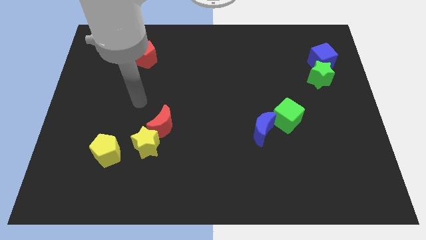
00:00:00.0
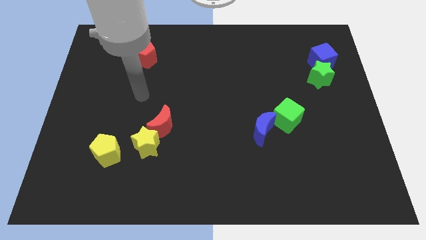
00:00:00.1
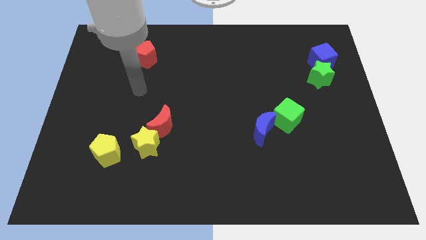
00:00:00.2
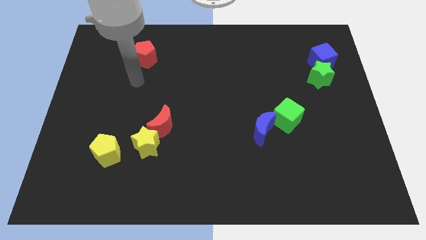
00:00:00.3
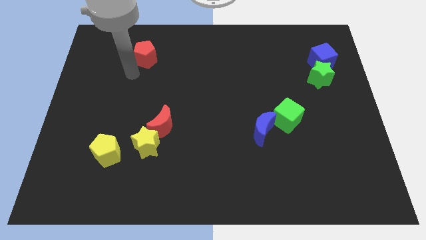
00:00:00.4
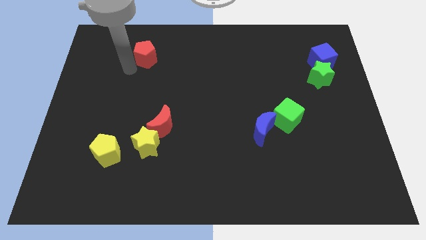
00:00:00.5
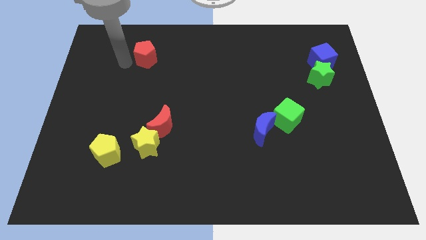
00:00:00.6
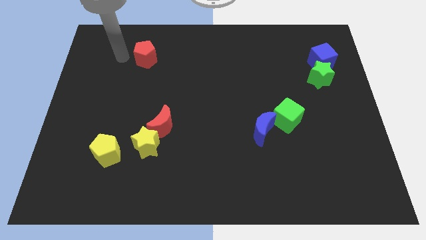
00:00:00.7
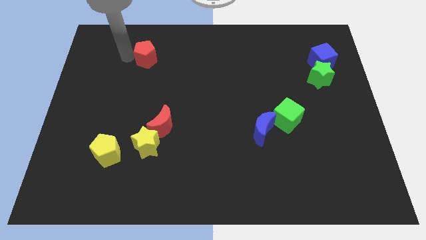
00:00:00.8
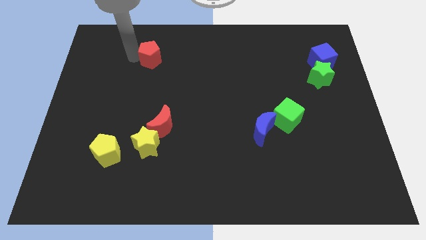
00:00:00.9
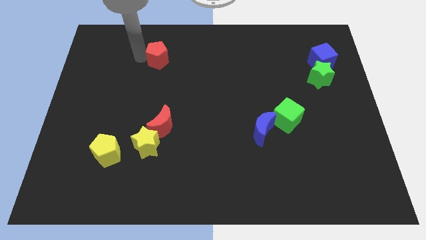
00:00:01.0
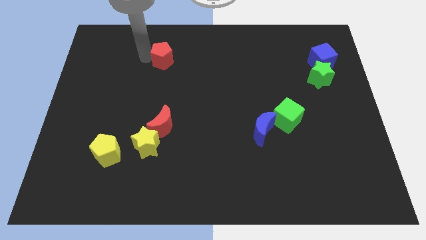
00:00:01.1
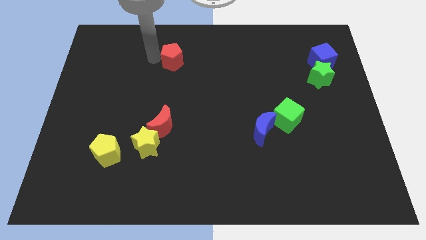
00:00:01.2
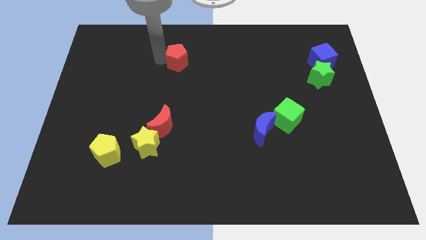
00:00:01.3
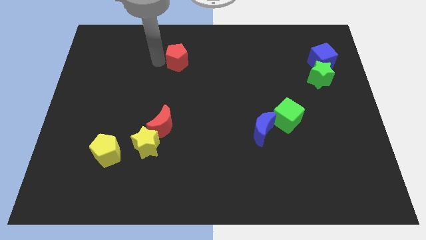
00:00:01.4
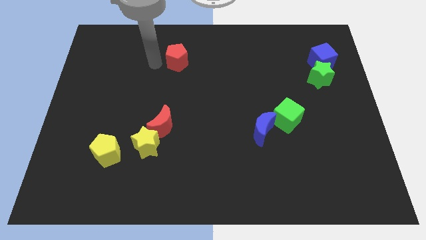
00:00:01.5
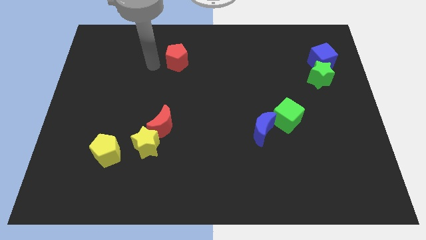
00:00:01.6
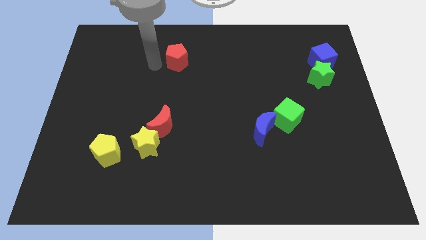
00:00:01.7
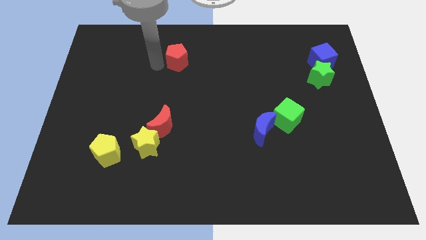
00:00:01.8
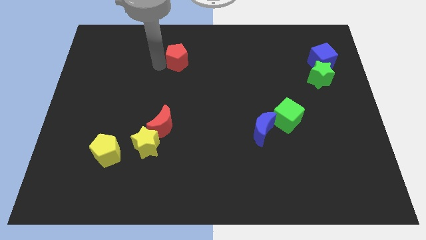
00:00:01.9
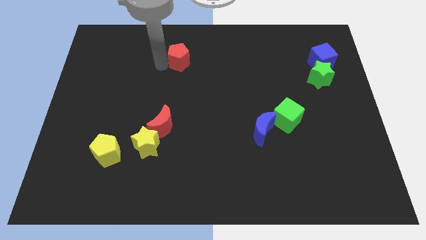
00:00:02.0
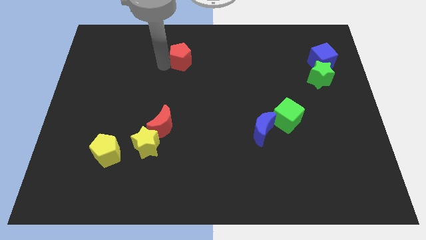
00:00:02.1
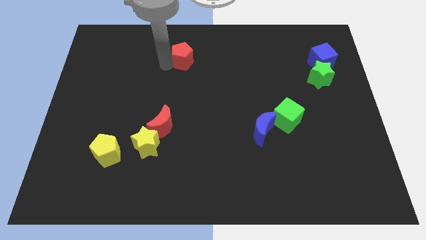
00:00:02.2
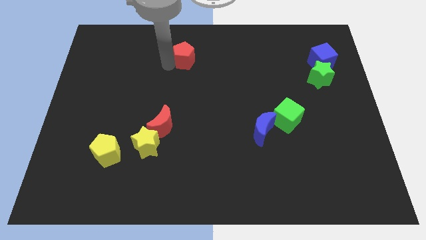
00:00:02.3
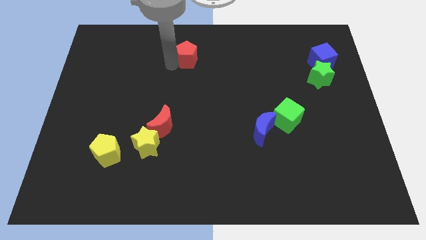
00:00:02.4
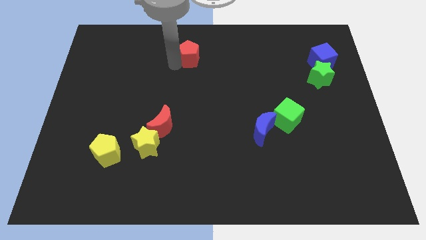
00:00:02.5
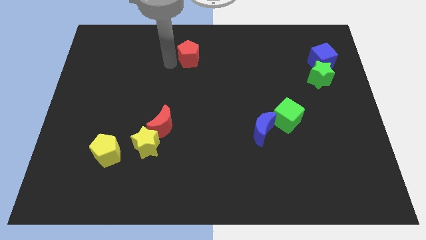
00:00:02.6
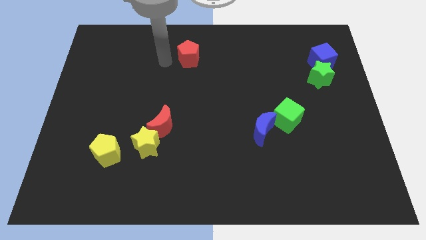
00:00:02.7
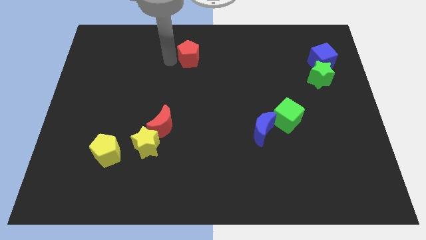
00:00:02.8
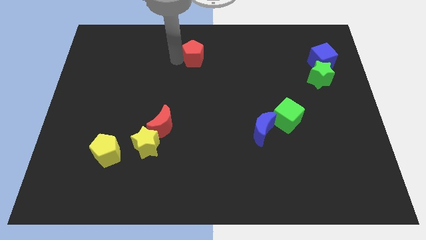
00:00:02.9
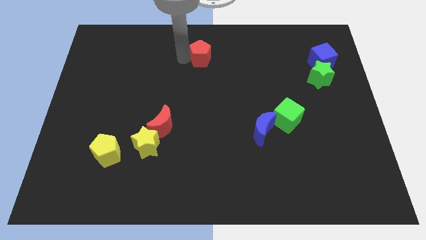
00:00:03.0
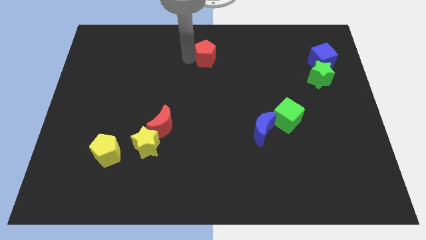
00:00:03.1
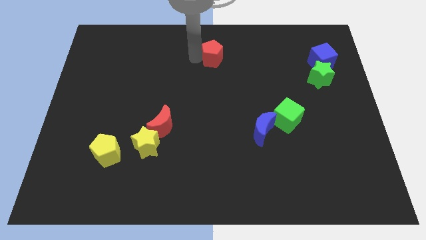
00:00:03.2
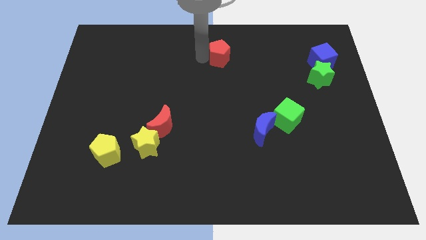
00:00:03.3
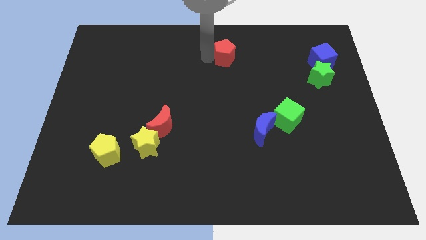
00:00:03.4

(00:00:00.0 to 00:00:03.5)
move the red pentagon right

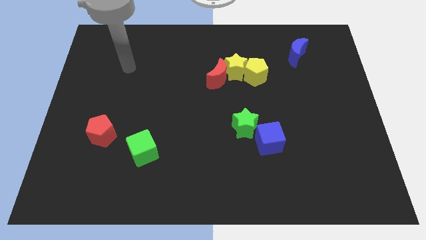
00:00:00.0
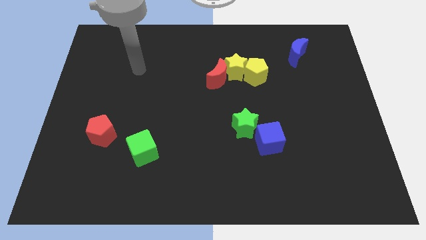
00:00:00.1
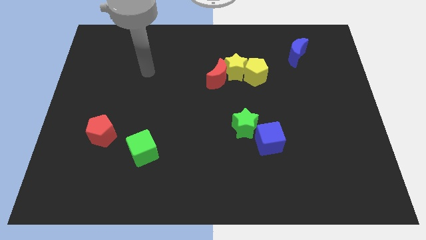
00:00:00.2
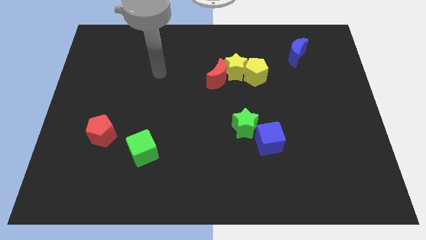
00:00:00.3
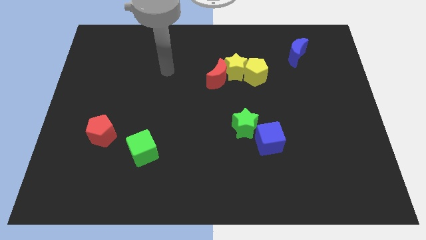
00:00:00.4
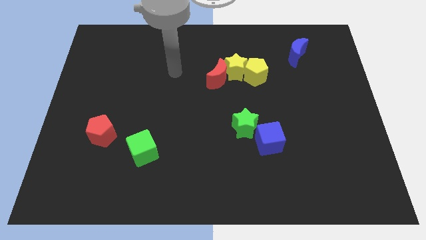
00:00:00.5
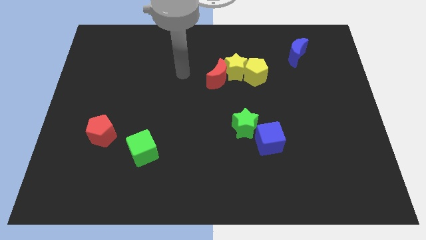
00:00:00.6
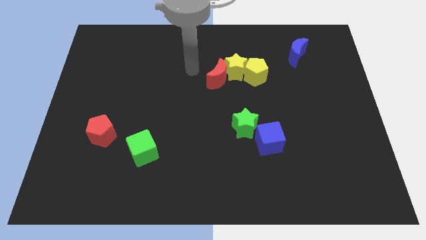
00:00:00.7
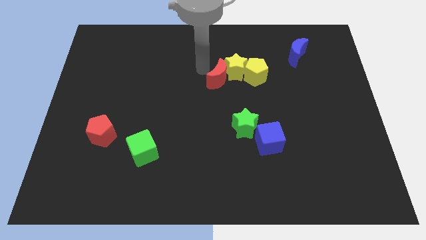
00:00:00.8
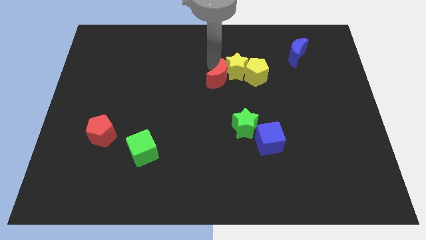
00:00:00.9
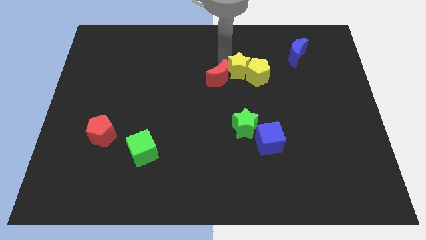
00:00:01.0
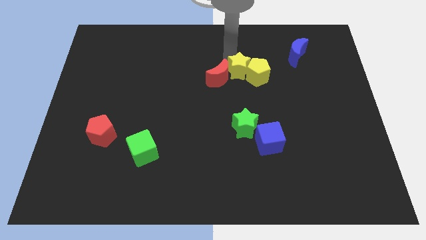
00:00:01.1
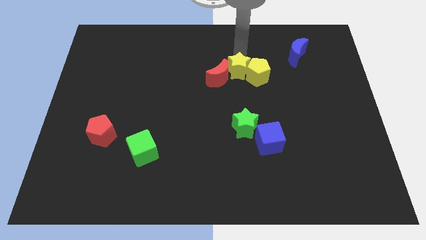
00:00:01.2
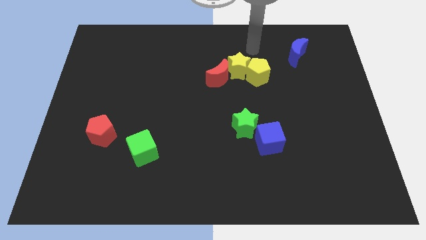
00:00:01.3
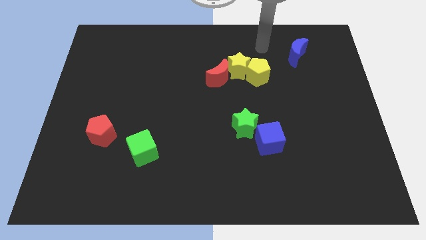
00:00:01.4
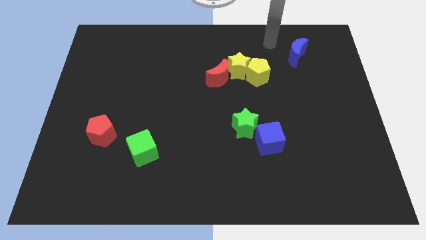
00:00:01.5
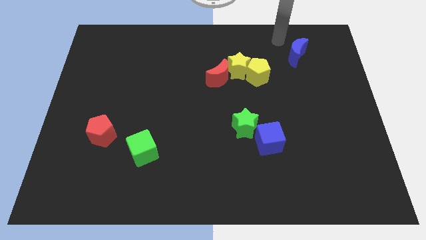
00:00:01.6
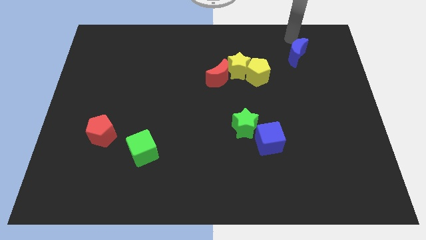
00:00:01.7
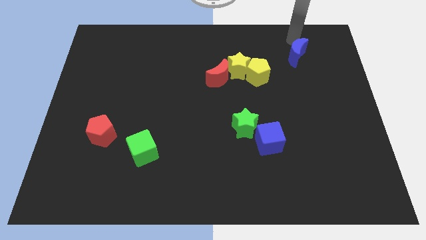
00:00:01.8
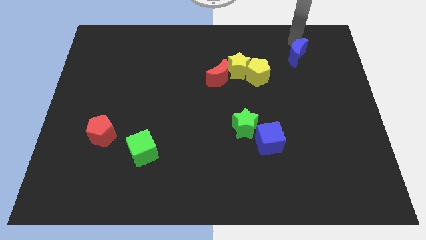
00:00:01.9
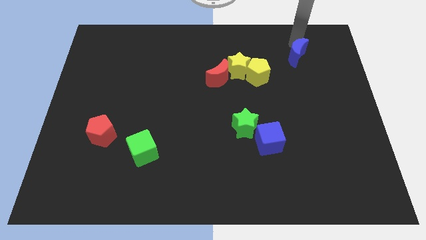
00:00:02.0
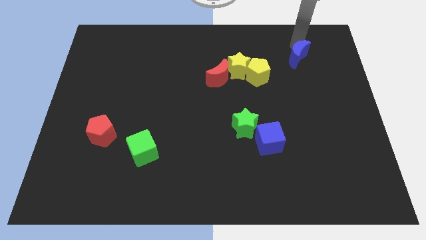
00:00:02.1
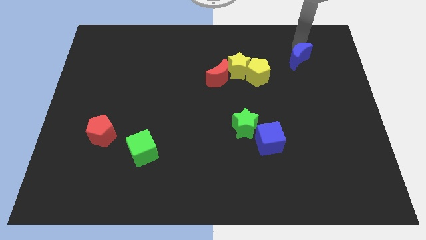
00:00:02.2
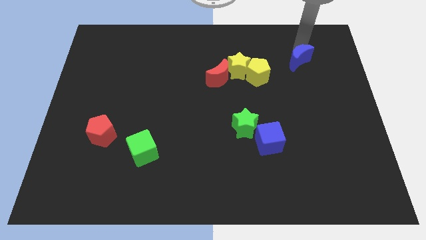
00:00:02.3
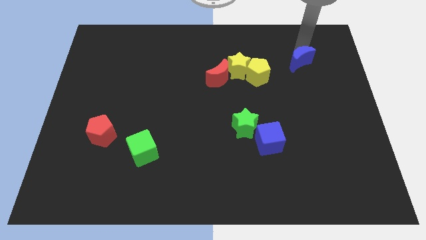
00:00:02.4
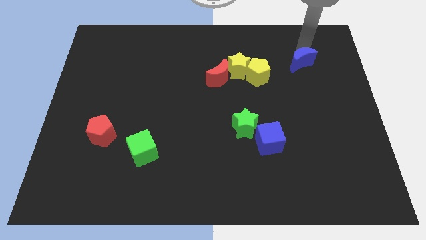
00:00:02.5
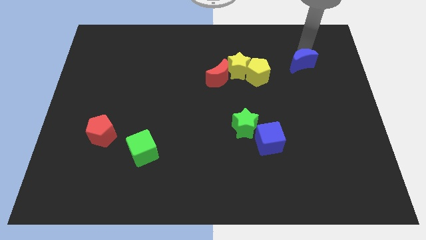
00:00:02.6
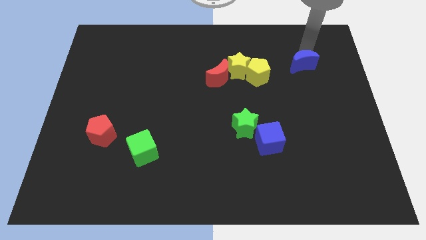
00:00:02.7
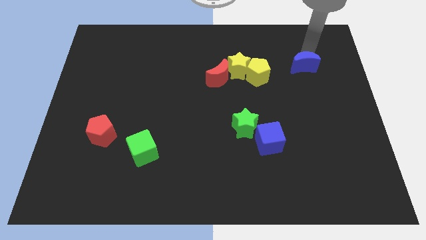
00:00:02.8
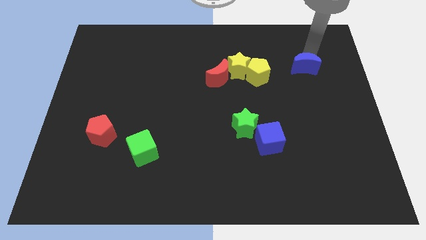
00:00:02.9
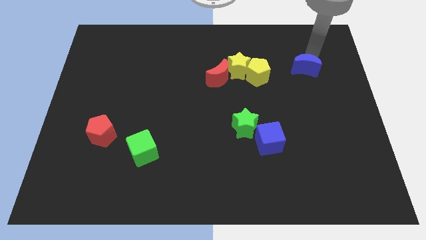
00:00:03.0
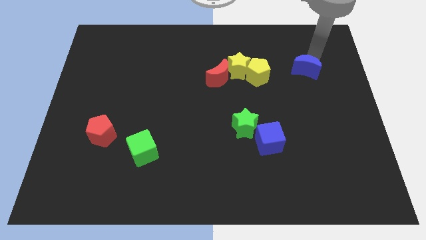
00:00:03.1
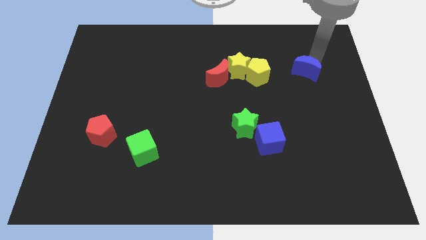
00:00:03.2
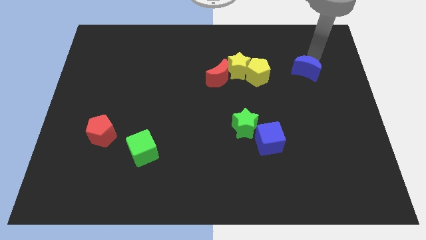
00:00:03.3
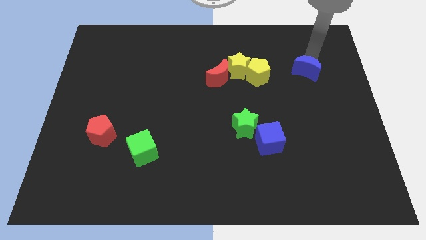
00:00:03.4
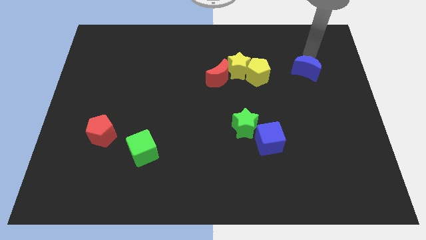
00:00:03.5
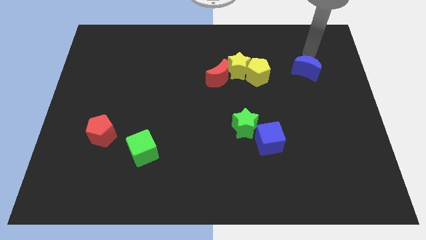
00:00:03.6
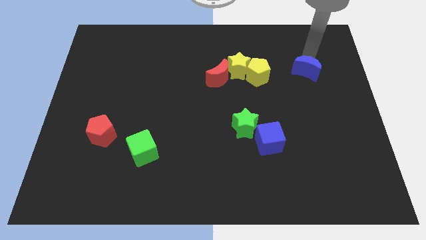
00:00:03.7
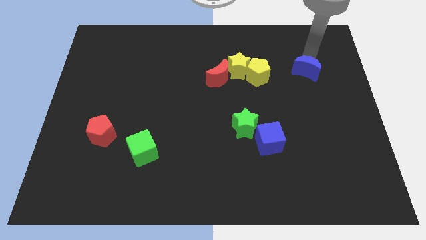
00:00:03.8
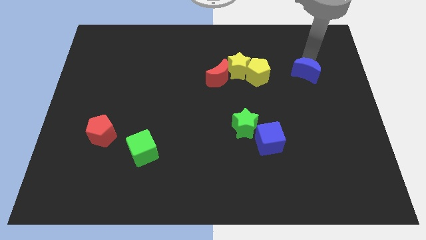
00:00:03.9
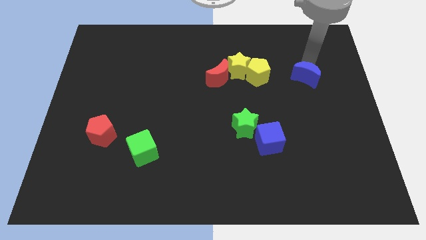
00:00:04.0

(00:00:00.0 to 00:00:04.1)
move the blue moon downwards a bit

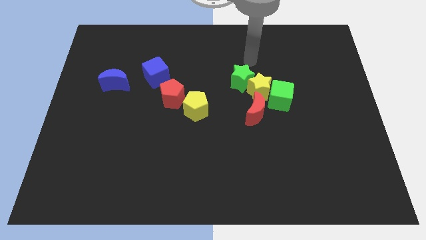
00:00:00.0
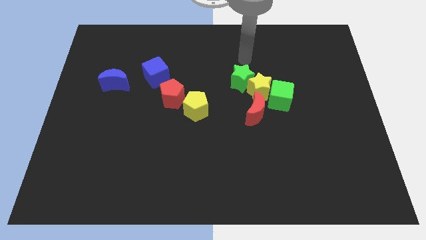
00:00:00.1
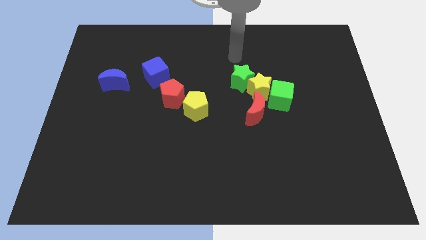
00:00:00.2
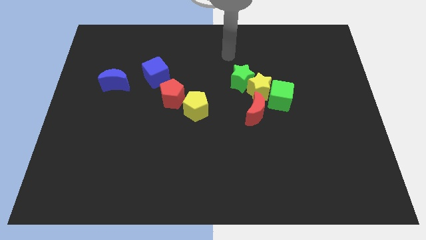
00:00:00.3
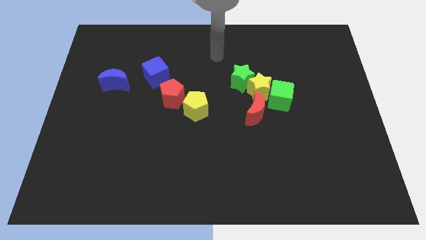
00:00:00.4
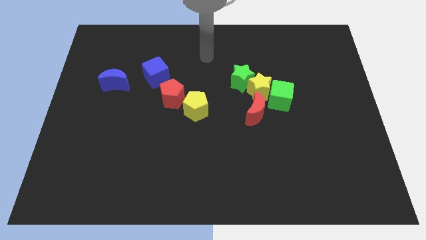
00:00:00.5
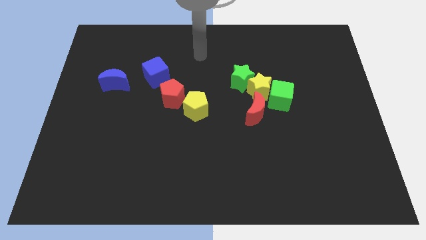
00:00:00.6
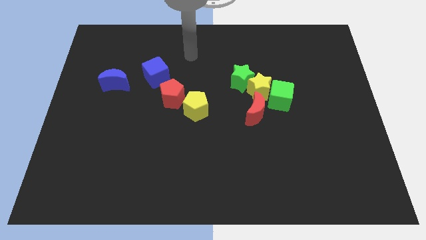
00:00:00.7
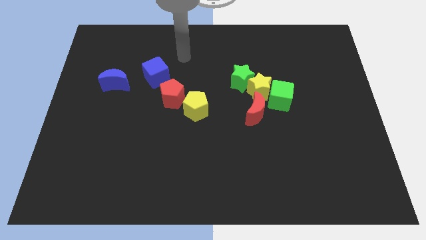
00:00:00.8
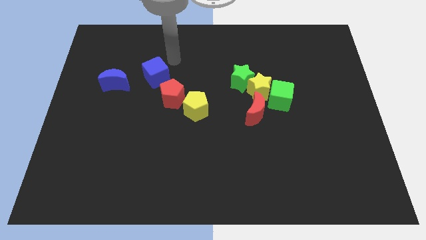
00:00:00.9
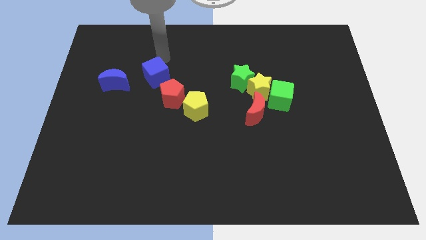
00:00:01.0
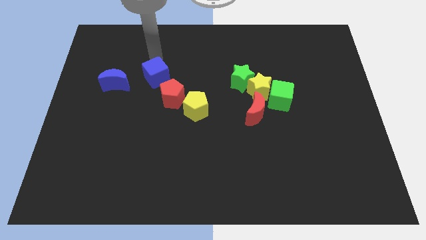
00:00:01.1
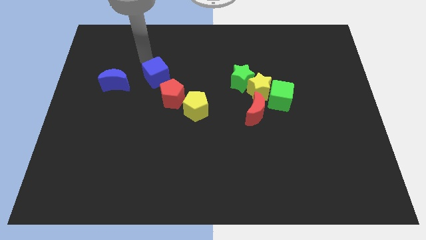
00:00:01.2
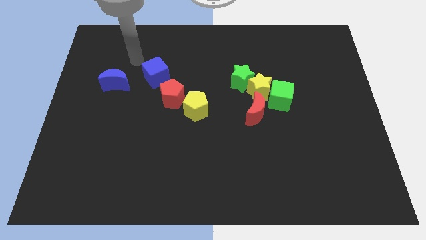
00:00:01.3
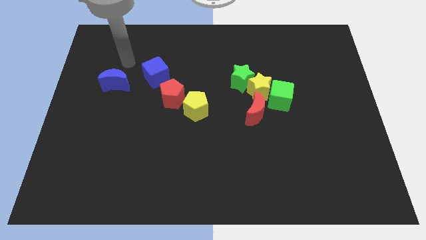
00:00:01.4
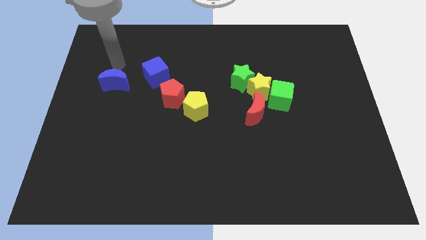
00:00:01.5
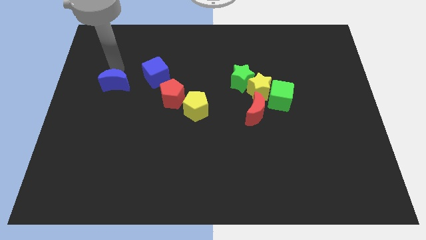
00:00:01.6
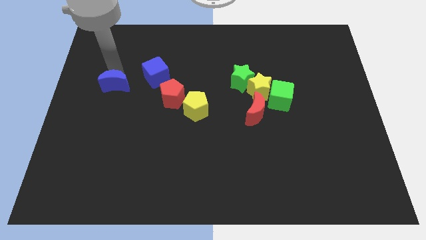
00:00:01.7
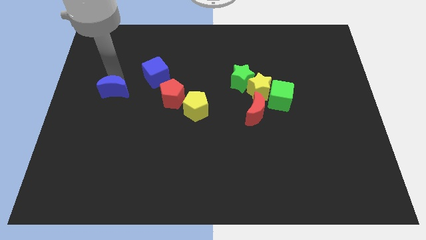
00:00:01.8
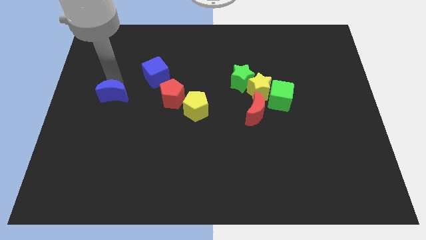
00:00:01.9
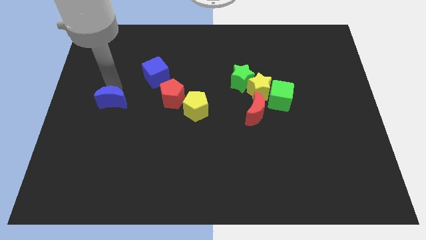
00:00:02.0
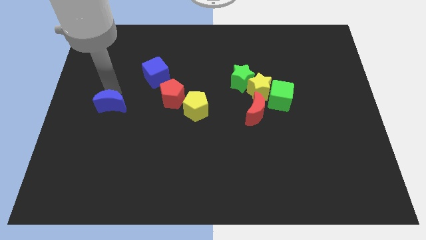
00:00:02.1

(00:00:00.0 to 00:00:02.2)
slightly push the blue moon downwards
